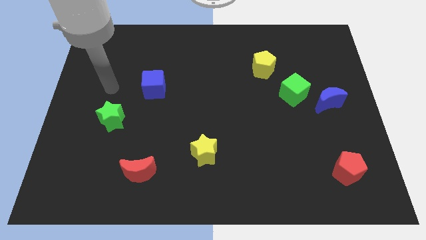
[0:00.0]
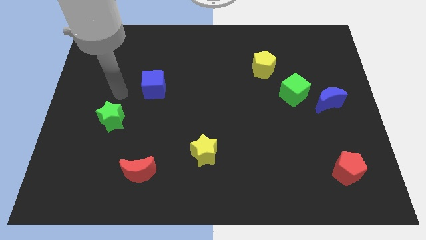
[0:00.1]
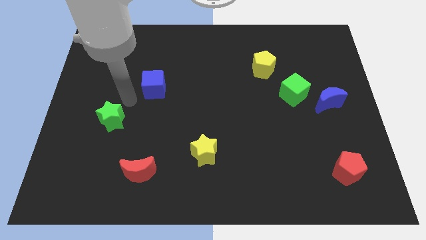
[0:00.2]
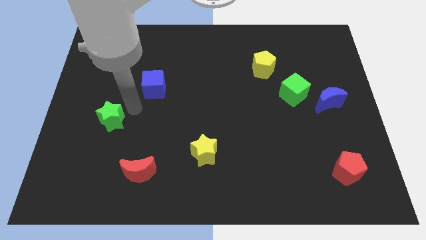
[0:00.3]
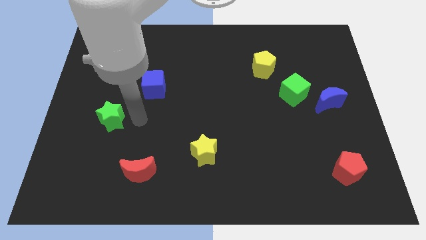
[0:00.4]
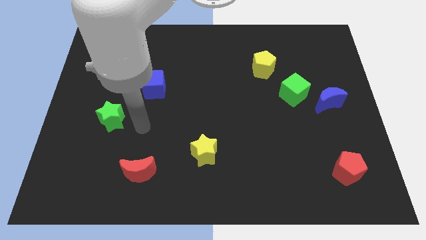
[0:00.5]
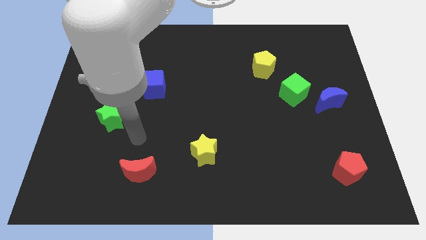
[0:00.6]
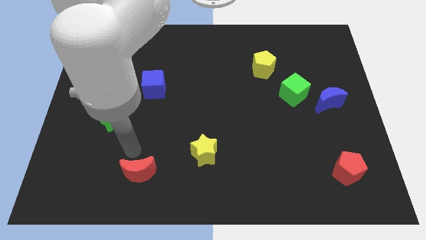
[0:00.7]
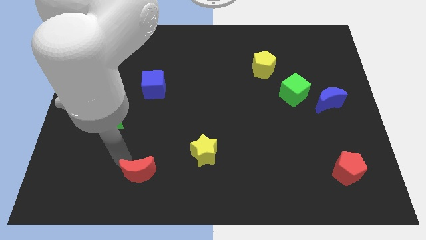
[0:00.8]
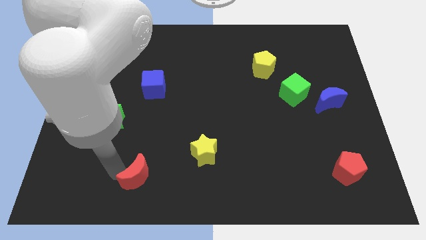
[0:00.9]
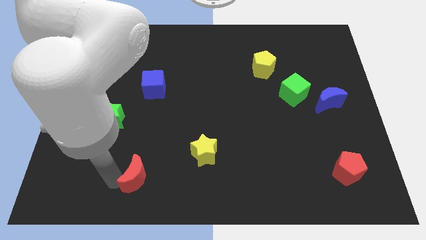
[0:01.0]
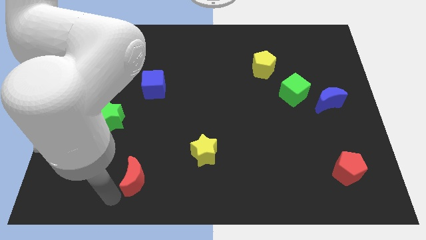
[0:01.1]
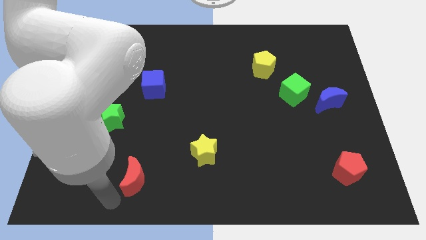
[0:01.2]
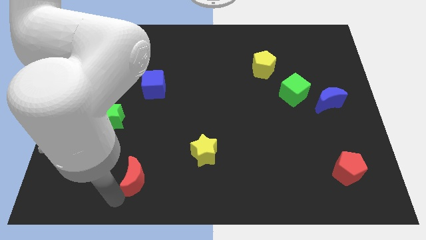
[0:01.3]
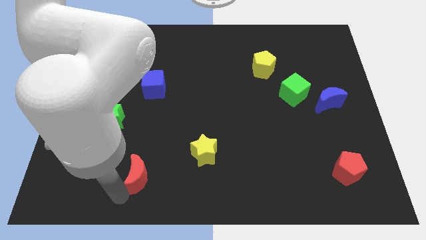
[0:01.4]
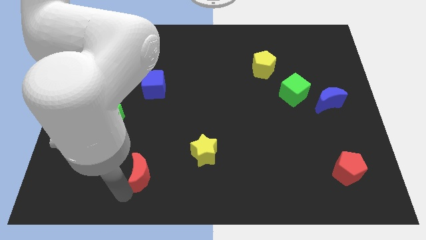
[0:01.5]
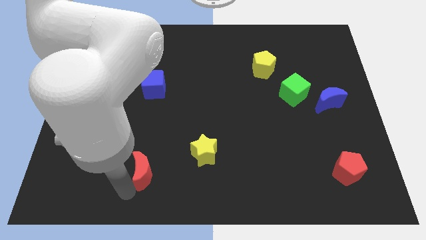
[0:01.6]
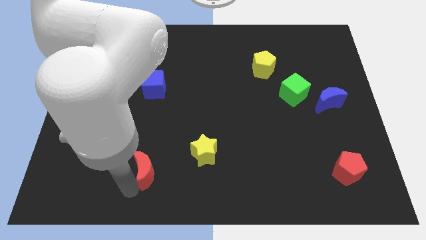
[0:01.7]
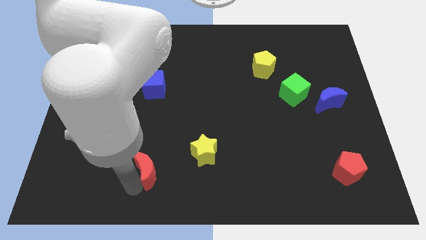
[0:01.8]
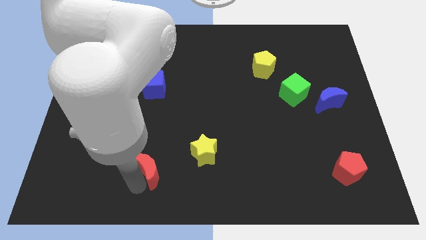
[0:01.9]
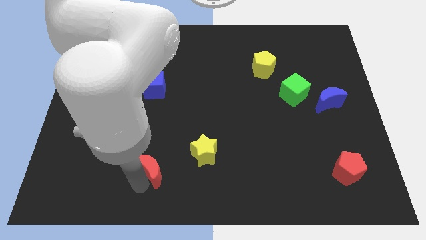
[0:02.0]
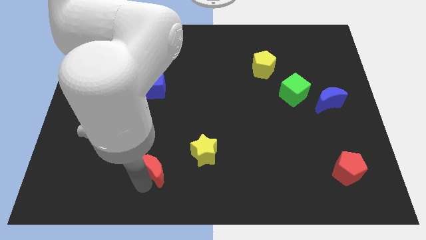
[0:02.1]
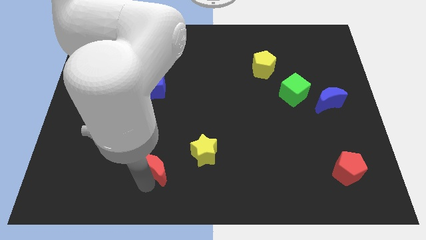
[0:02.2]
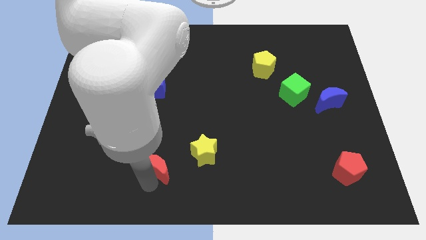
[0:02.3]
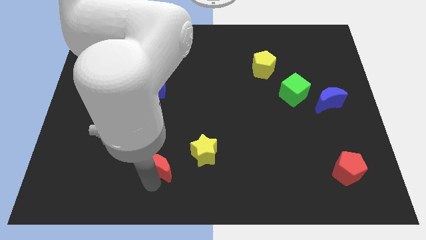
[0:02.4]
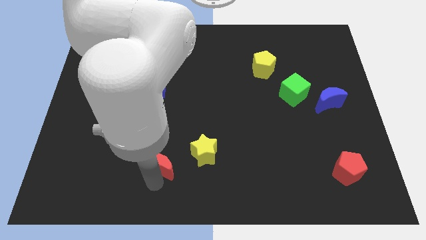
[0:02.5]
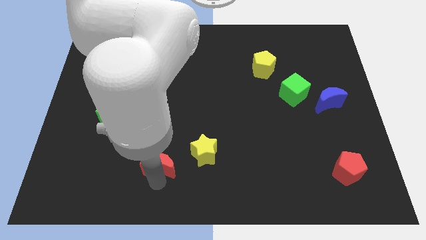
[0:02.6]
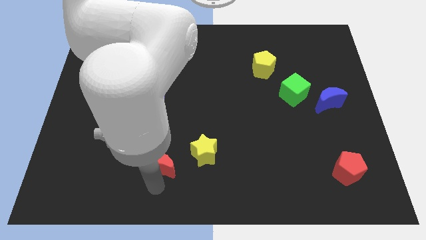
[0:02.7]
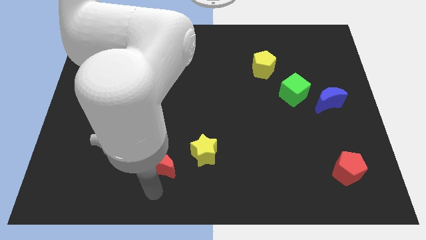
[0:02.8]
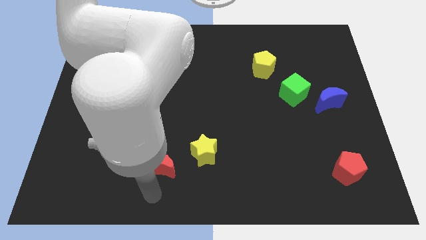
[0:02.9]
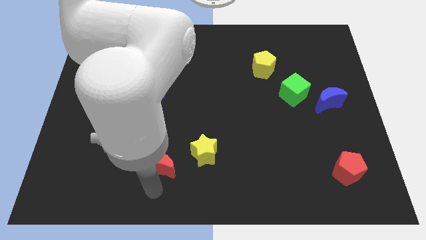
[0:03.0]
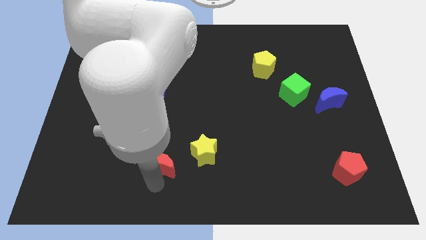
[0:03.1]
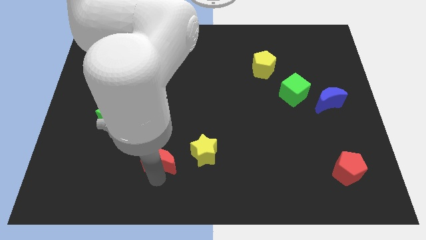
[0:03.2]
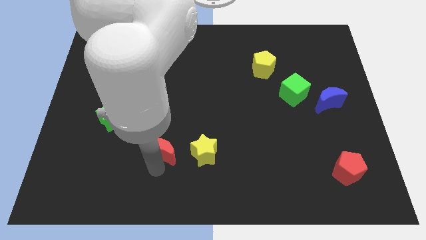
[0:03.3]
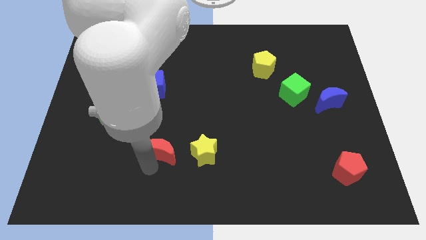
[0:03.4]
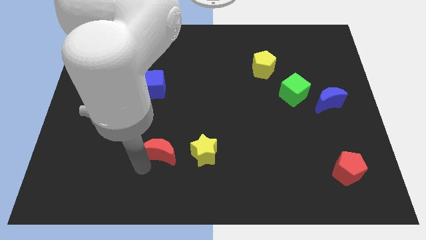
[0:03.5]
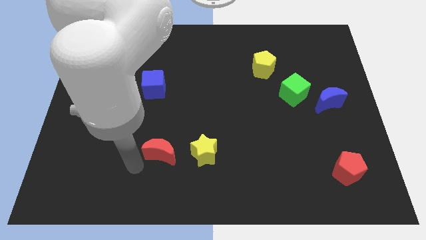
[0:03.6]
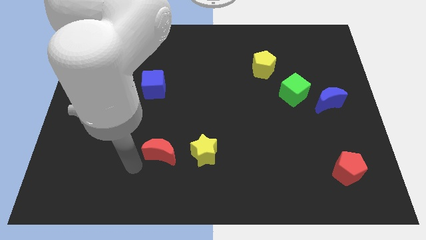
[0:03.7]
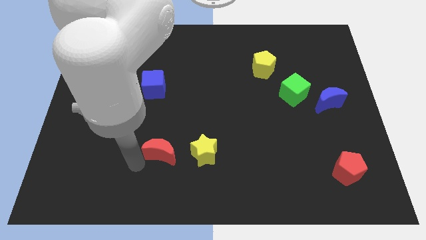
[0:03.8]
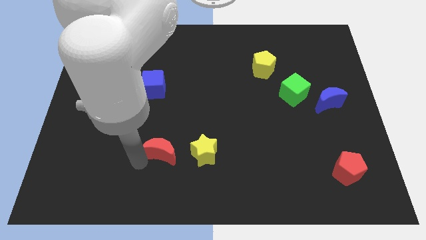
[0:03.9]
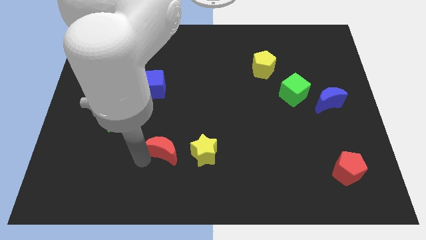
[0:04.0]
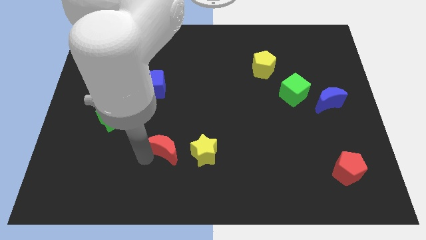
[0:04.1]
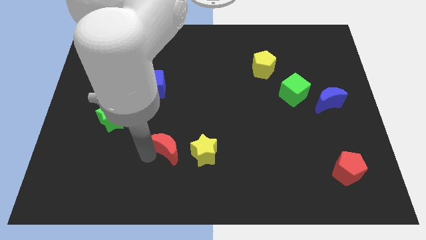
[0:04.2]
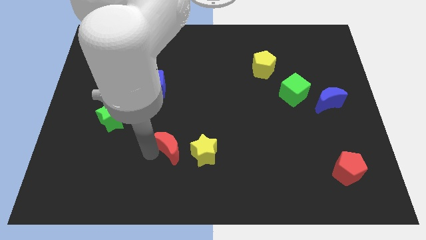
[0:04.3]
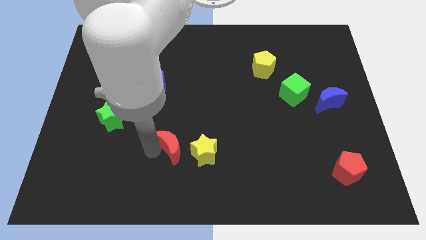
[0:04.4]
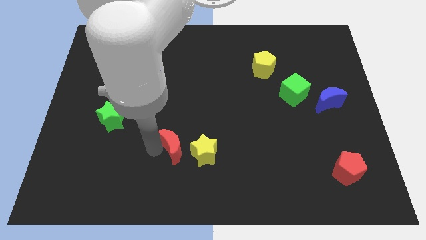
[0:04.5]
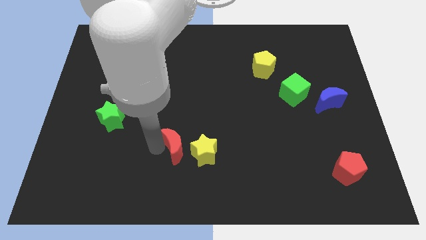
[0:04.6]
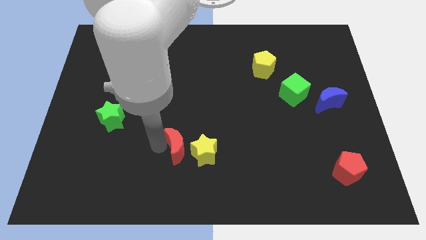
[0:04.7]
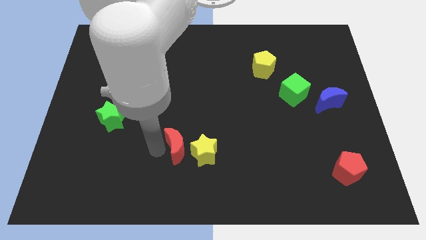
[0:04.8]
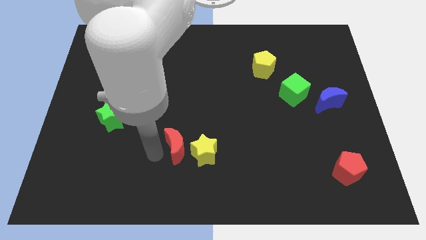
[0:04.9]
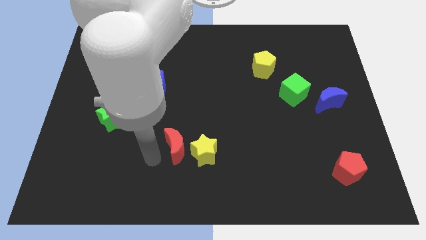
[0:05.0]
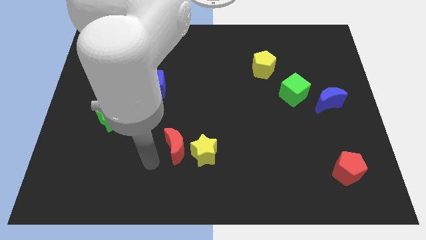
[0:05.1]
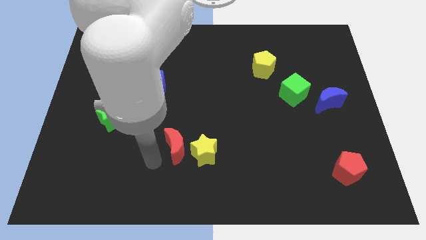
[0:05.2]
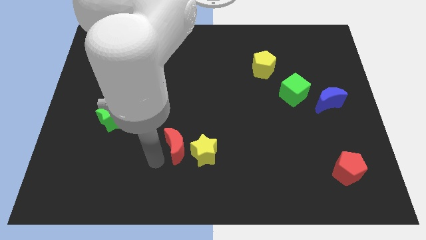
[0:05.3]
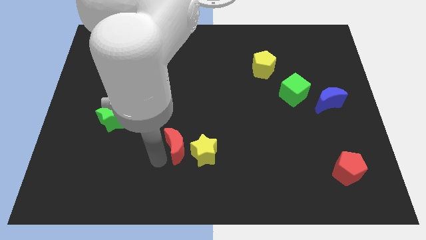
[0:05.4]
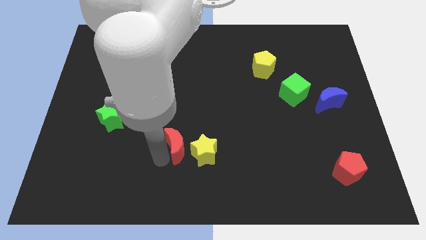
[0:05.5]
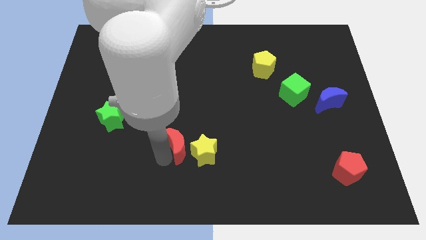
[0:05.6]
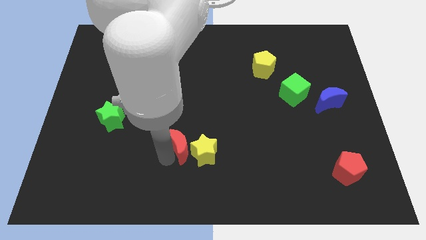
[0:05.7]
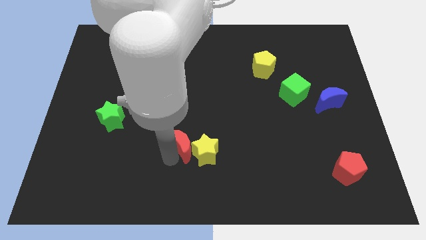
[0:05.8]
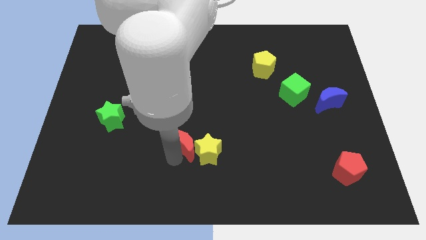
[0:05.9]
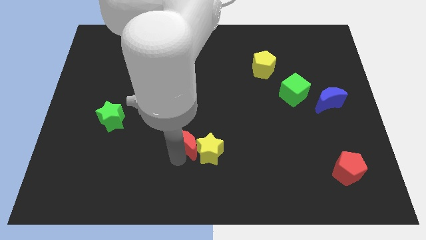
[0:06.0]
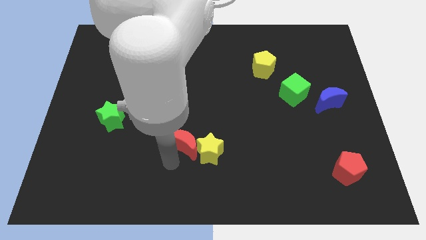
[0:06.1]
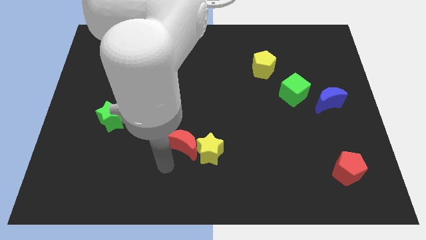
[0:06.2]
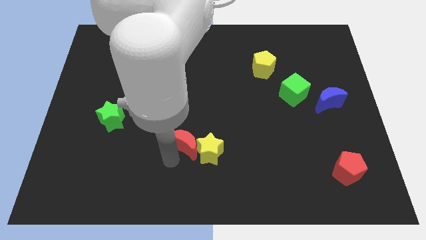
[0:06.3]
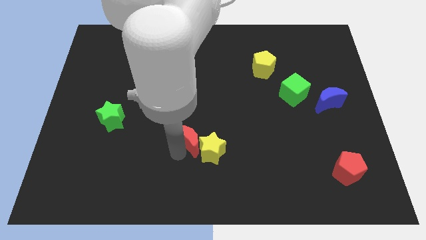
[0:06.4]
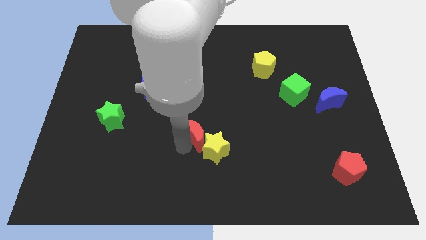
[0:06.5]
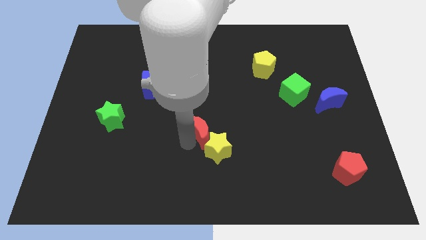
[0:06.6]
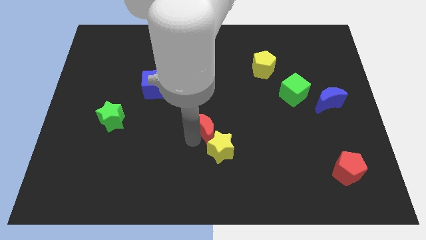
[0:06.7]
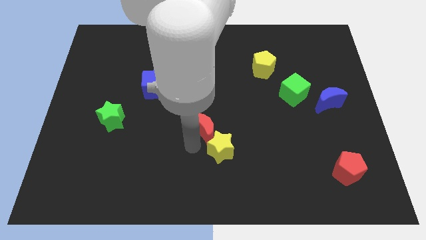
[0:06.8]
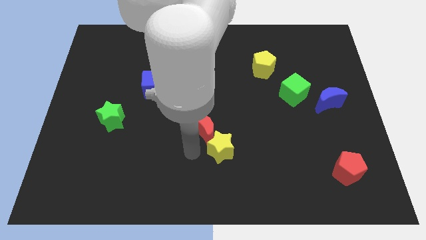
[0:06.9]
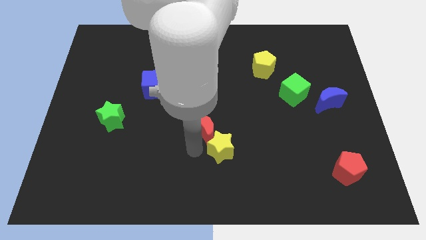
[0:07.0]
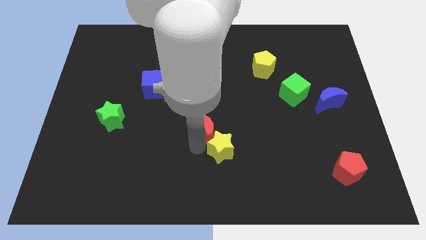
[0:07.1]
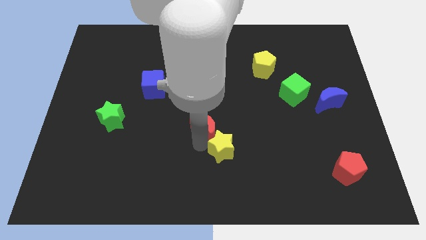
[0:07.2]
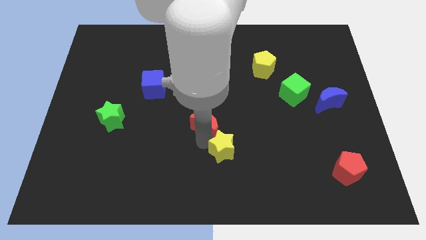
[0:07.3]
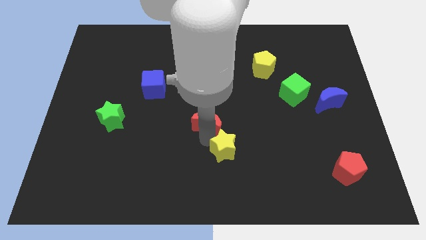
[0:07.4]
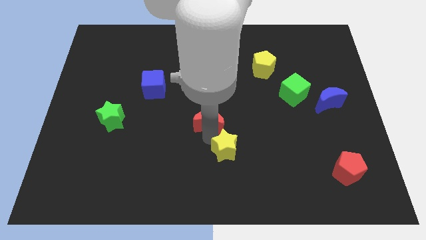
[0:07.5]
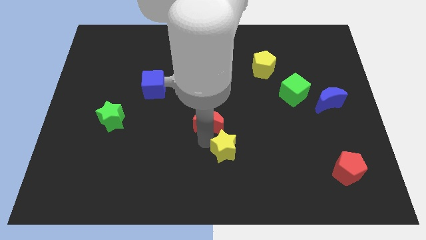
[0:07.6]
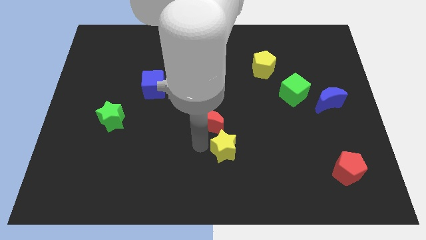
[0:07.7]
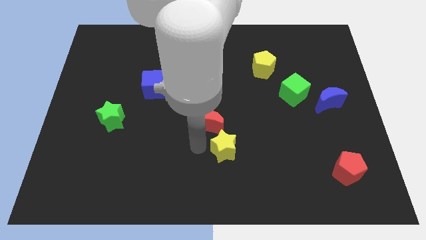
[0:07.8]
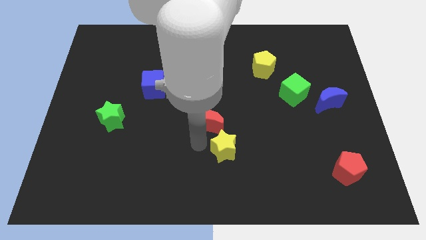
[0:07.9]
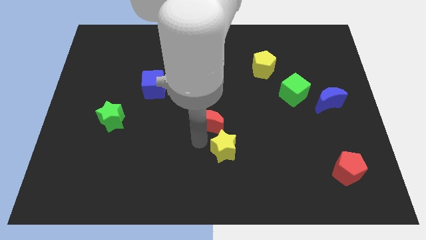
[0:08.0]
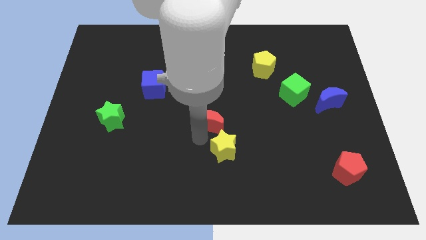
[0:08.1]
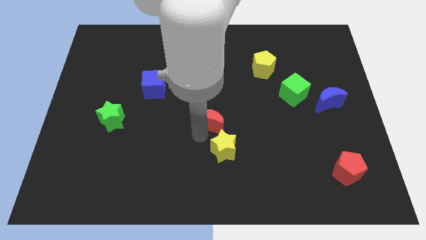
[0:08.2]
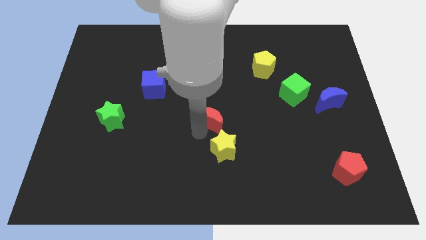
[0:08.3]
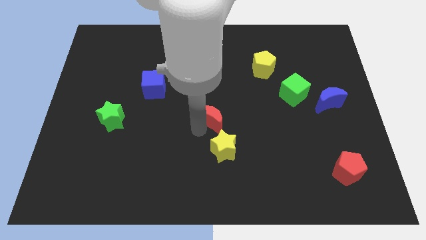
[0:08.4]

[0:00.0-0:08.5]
push the red moon diagonally up and to the right
